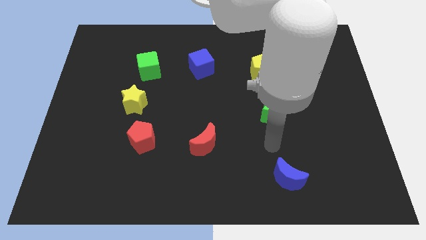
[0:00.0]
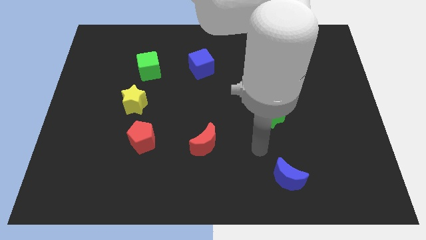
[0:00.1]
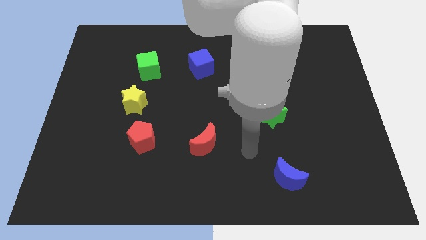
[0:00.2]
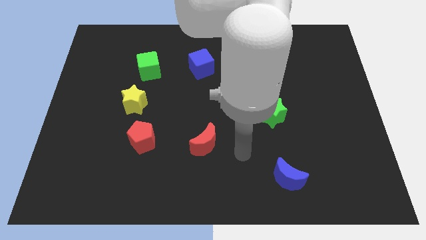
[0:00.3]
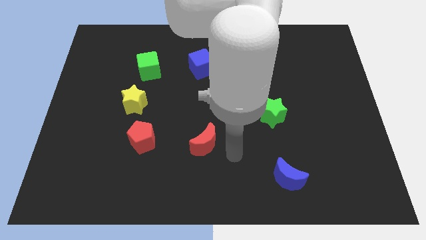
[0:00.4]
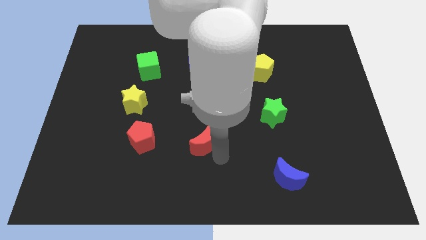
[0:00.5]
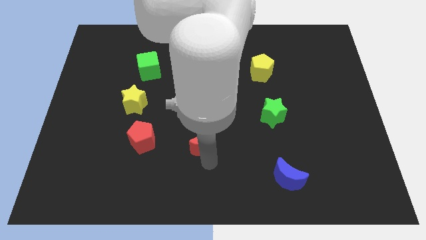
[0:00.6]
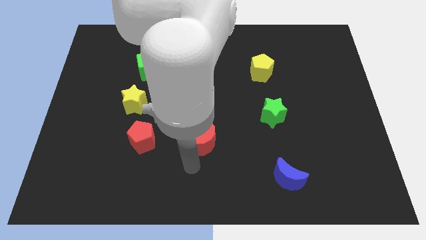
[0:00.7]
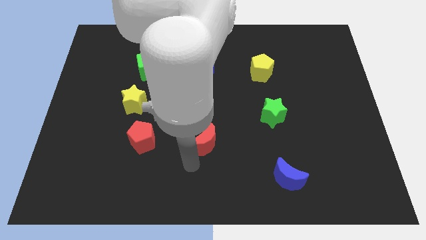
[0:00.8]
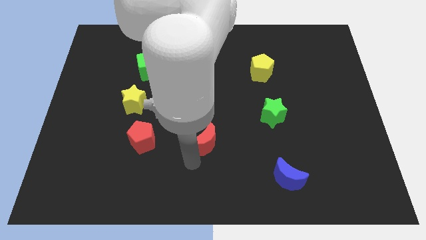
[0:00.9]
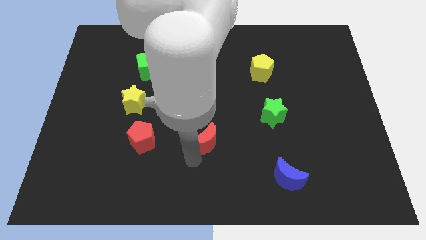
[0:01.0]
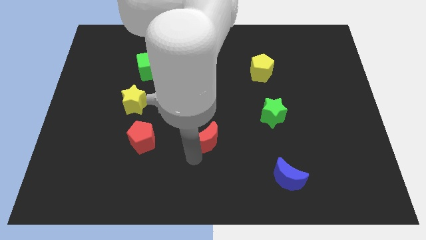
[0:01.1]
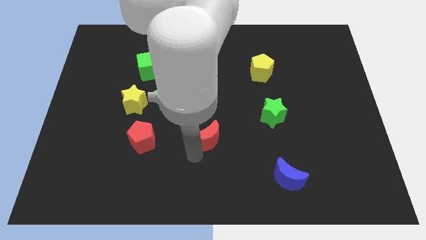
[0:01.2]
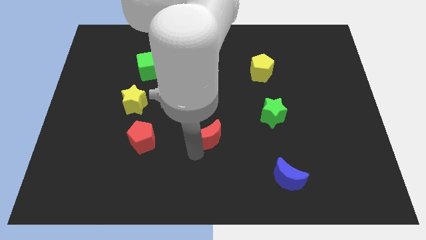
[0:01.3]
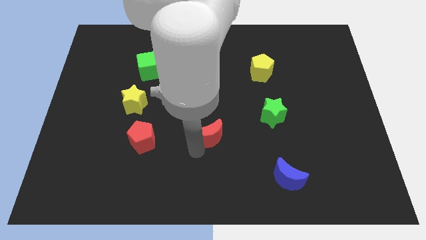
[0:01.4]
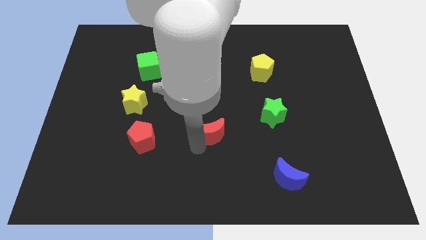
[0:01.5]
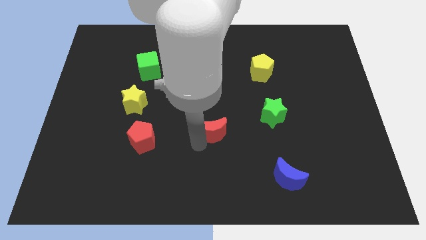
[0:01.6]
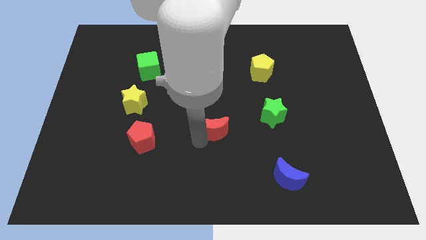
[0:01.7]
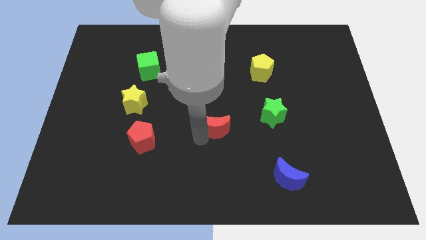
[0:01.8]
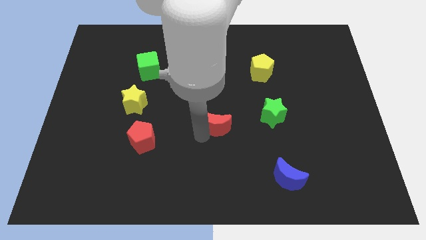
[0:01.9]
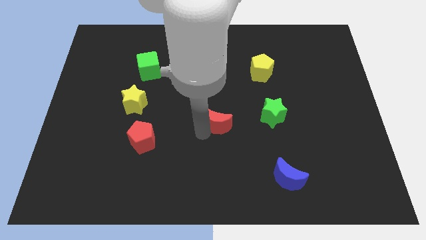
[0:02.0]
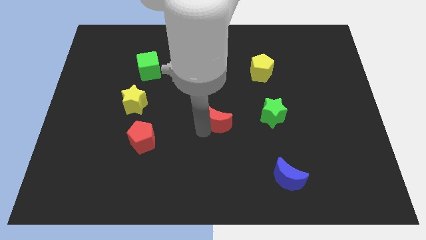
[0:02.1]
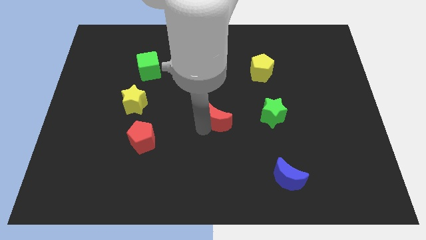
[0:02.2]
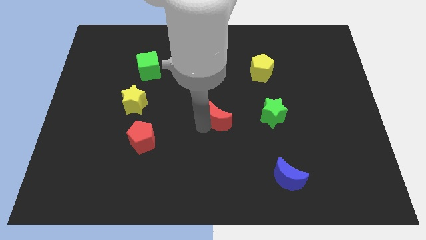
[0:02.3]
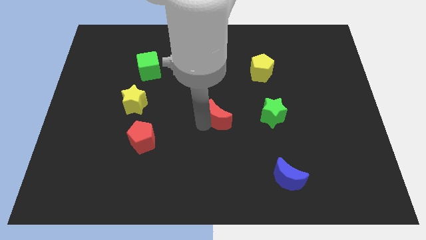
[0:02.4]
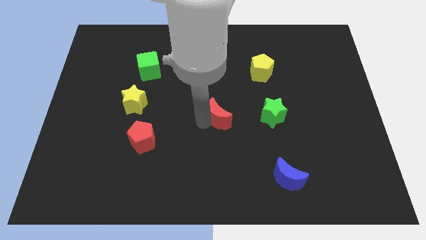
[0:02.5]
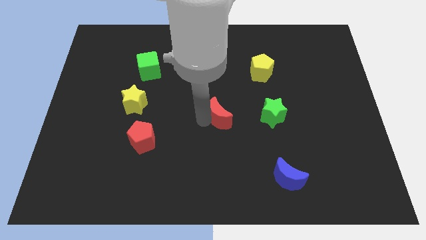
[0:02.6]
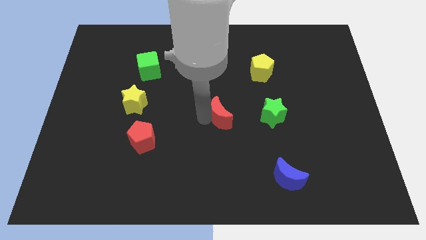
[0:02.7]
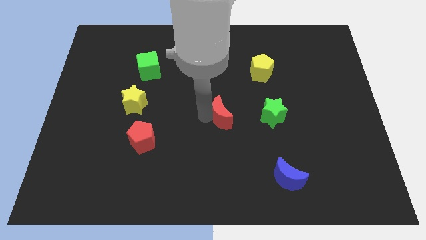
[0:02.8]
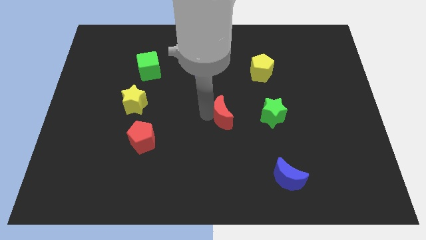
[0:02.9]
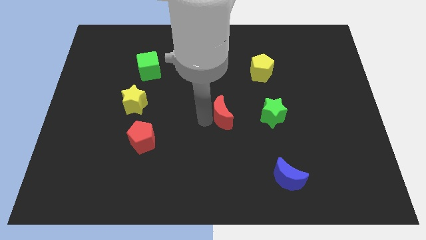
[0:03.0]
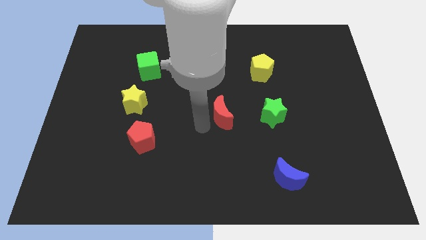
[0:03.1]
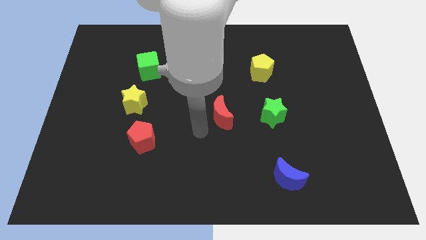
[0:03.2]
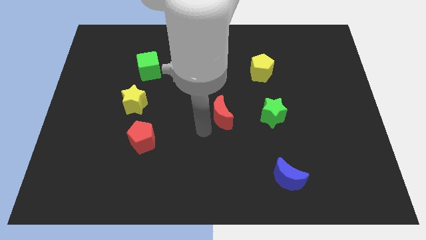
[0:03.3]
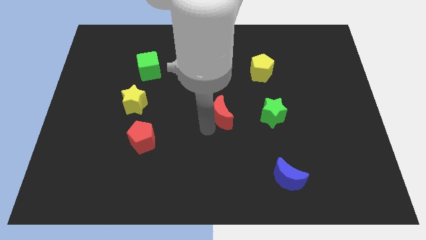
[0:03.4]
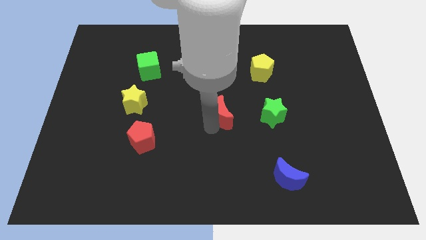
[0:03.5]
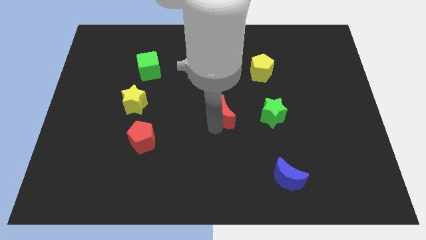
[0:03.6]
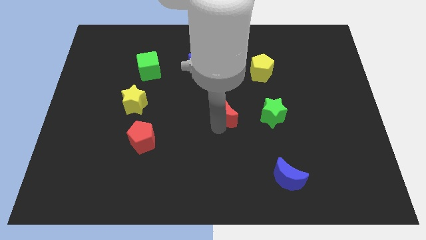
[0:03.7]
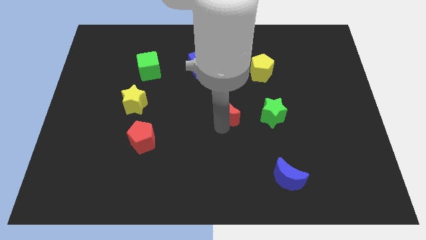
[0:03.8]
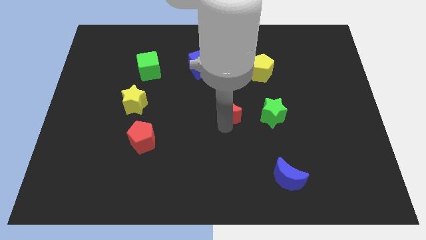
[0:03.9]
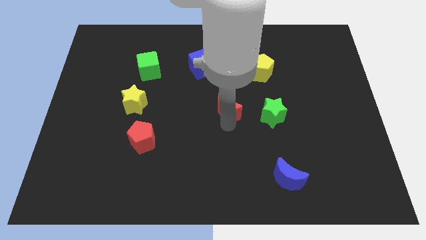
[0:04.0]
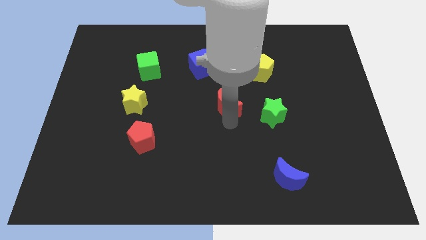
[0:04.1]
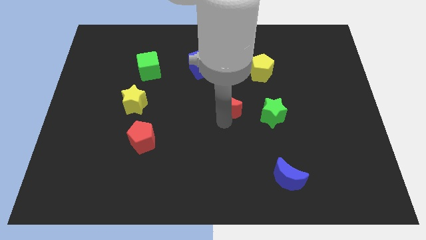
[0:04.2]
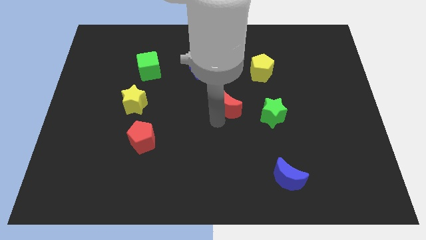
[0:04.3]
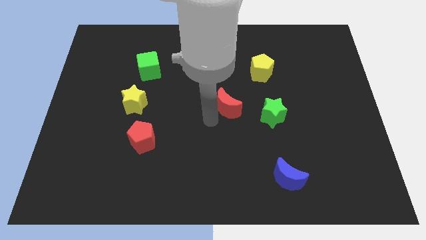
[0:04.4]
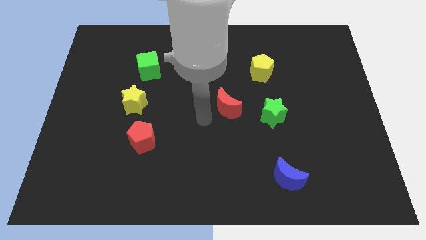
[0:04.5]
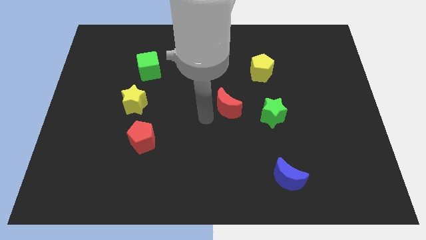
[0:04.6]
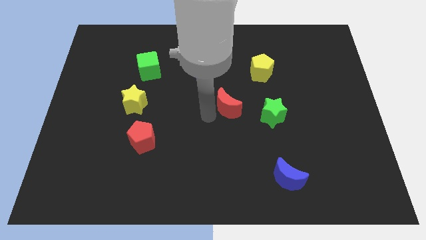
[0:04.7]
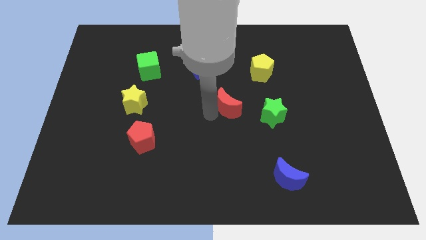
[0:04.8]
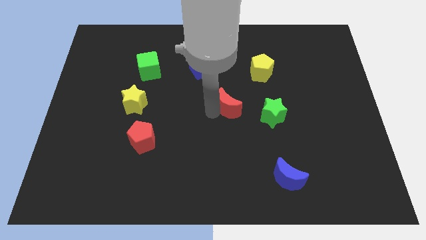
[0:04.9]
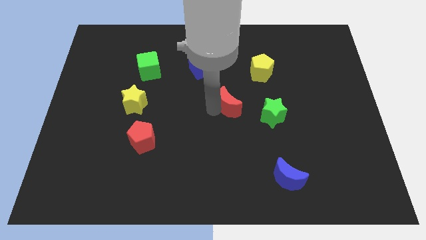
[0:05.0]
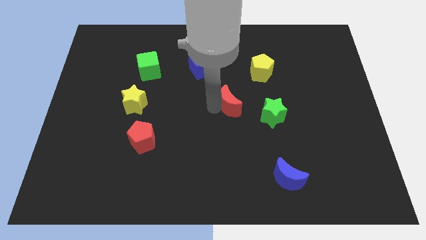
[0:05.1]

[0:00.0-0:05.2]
move the red moon to the top left side of the green star

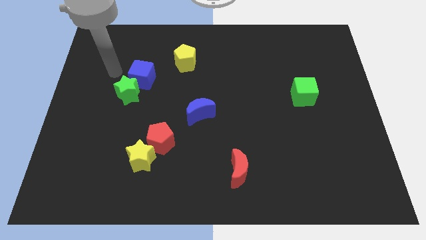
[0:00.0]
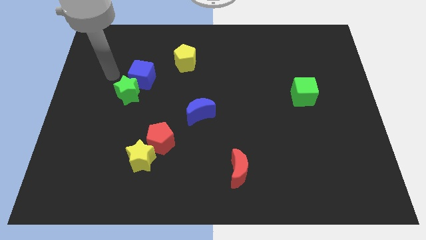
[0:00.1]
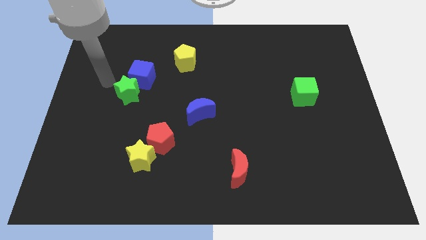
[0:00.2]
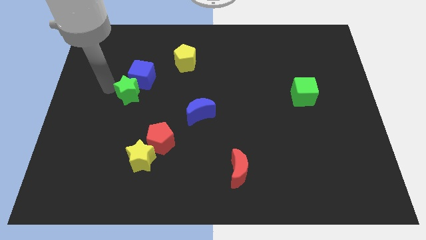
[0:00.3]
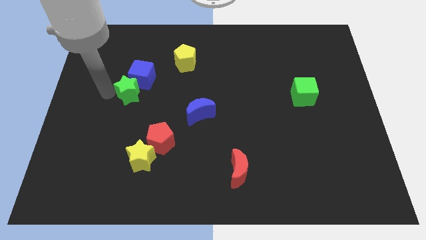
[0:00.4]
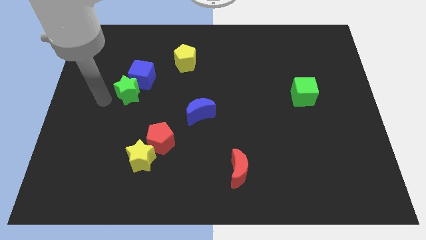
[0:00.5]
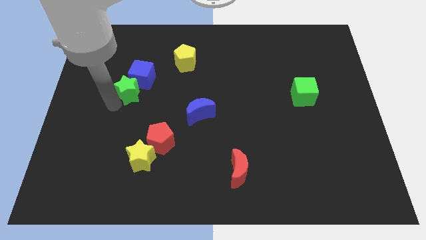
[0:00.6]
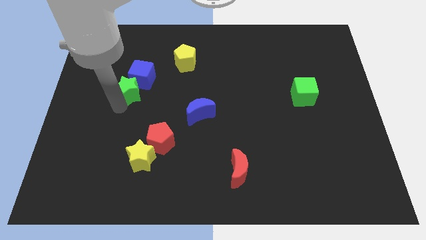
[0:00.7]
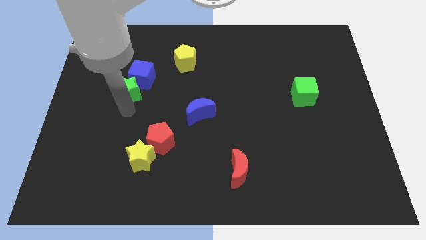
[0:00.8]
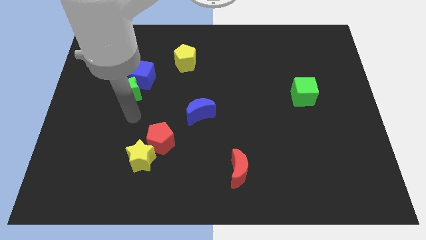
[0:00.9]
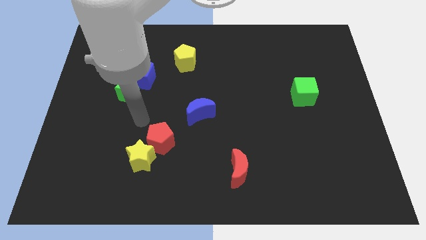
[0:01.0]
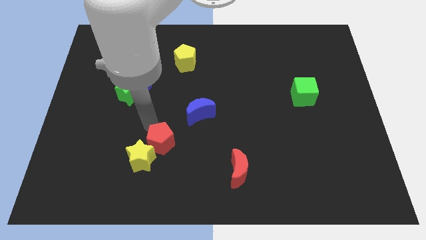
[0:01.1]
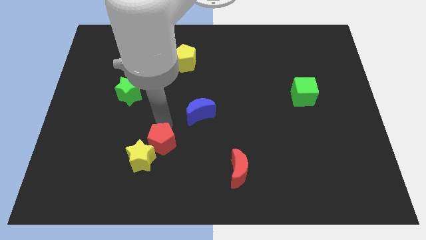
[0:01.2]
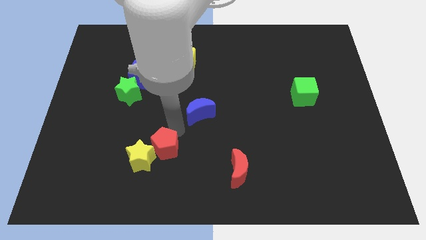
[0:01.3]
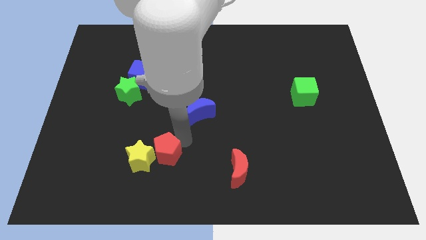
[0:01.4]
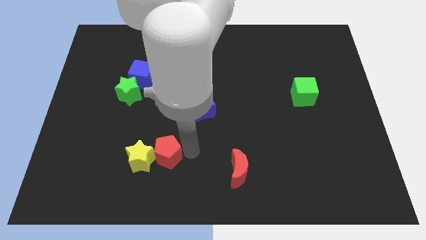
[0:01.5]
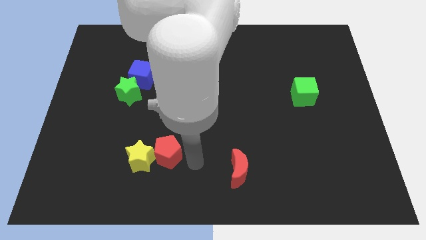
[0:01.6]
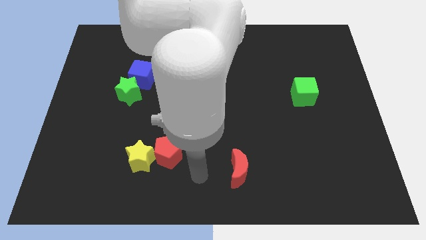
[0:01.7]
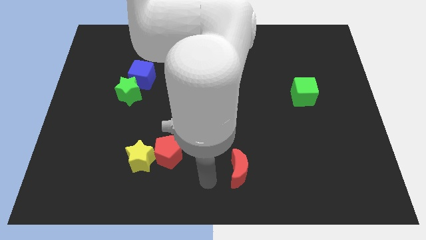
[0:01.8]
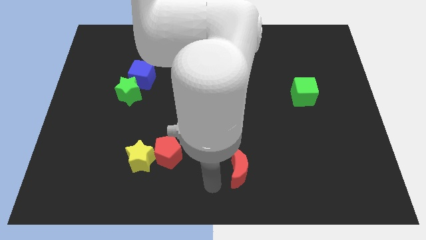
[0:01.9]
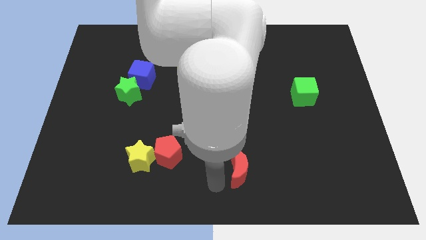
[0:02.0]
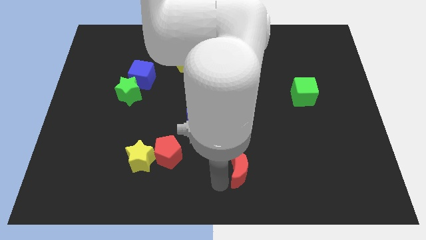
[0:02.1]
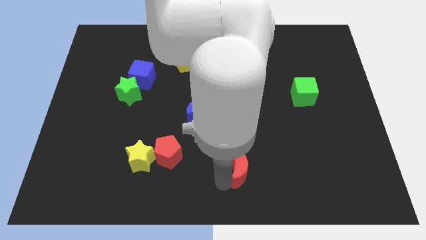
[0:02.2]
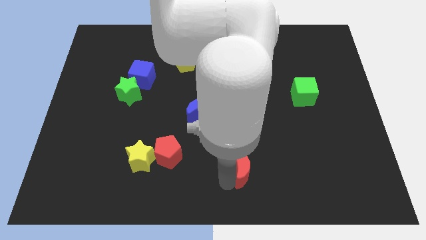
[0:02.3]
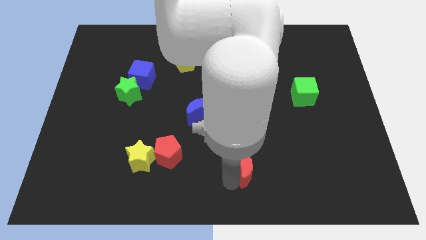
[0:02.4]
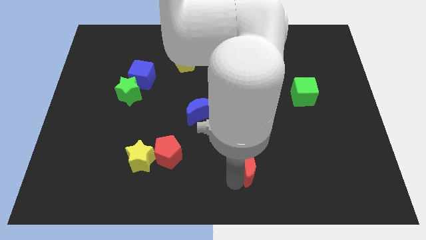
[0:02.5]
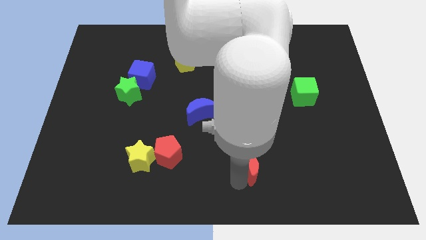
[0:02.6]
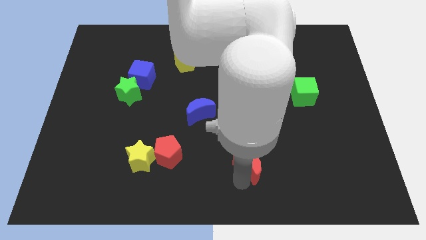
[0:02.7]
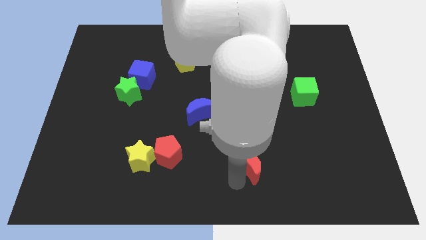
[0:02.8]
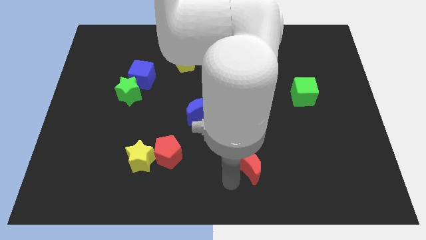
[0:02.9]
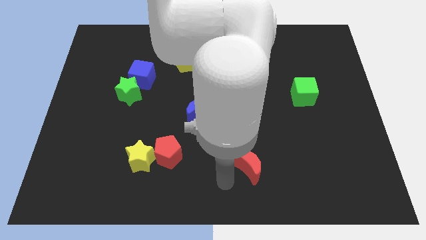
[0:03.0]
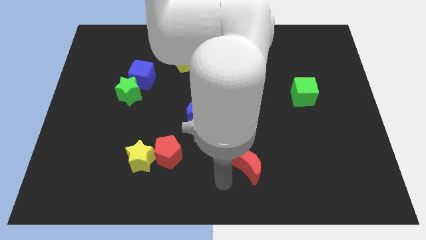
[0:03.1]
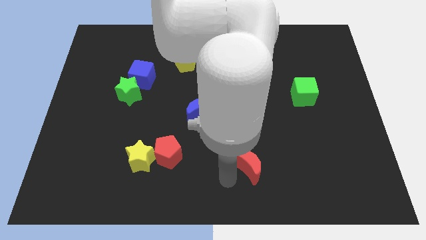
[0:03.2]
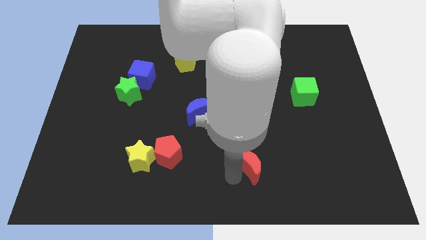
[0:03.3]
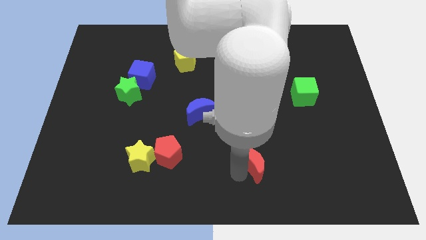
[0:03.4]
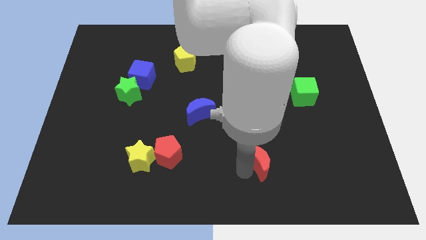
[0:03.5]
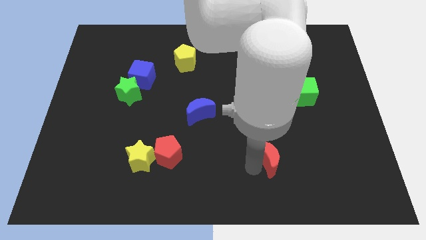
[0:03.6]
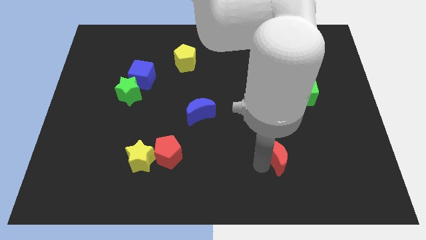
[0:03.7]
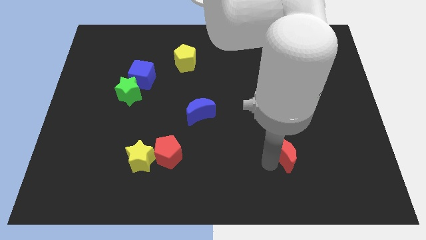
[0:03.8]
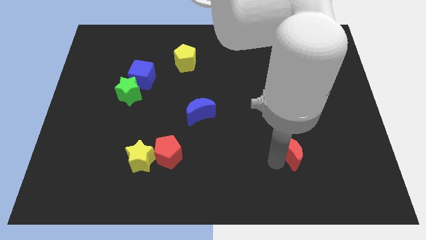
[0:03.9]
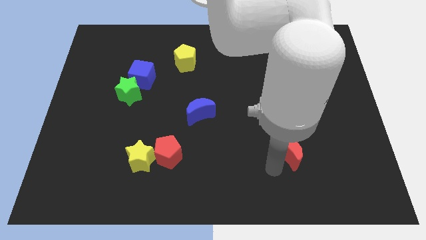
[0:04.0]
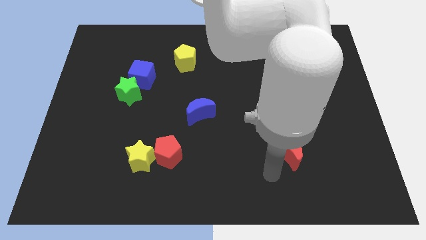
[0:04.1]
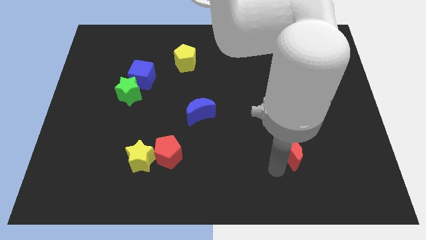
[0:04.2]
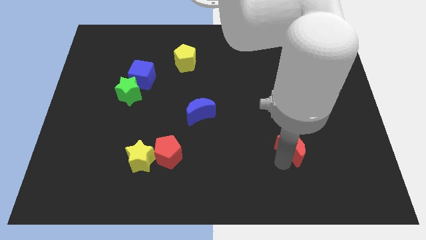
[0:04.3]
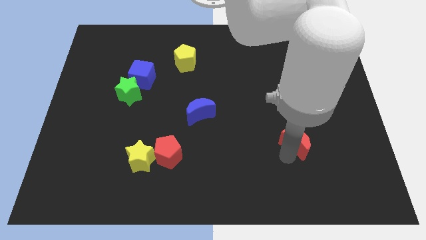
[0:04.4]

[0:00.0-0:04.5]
move the red moon to the bottom of the green cube
